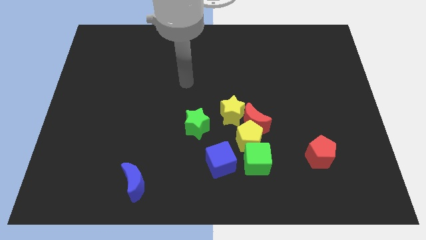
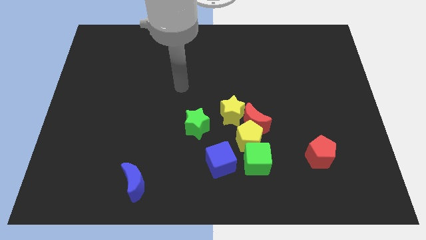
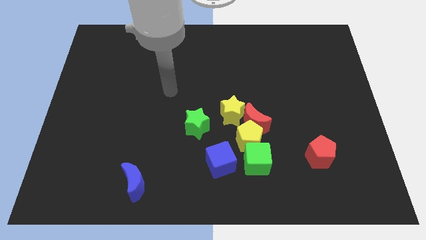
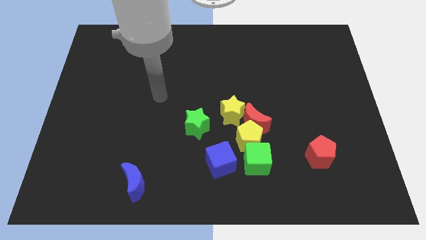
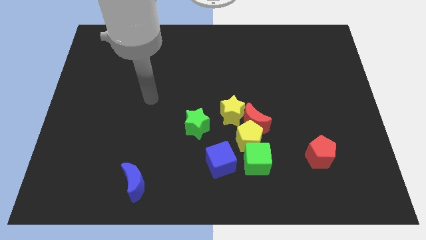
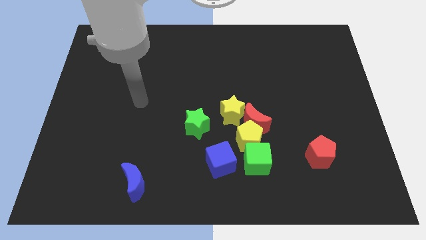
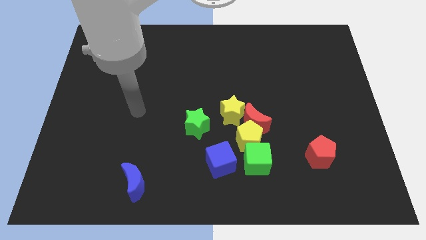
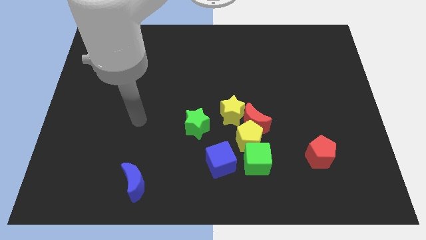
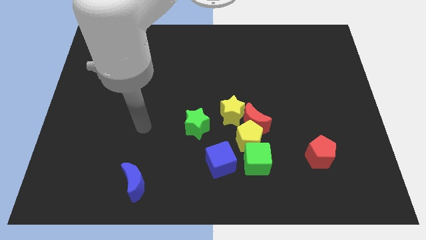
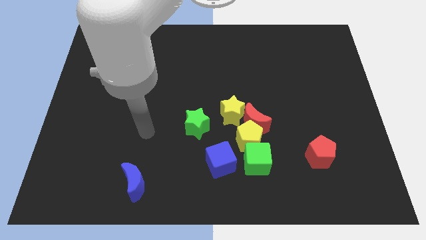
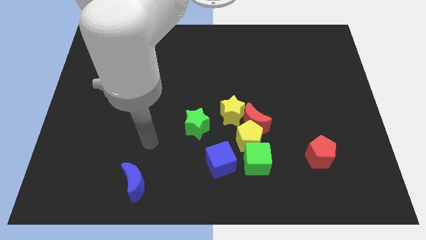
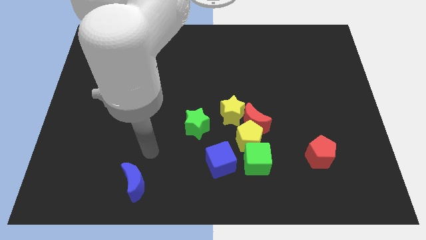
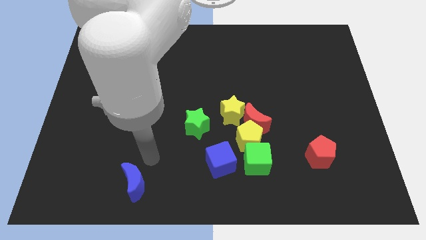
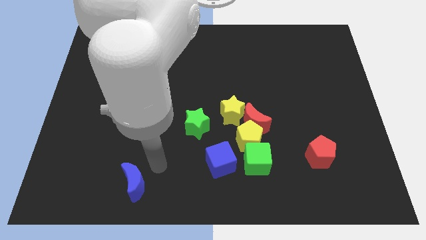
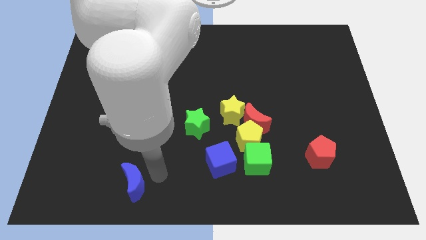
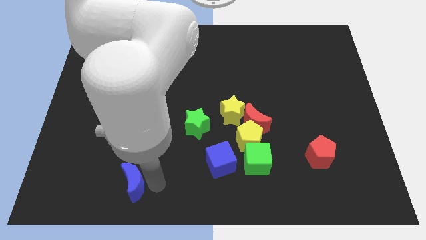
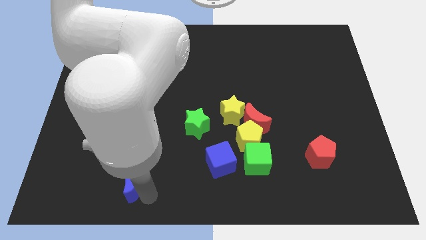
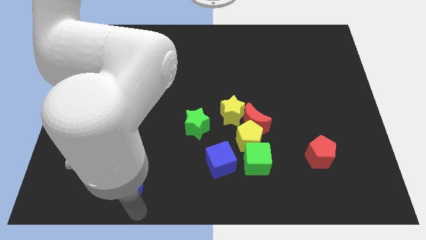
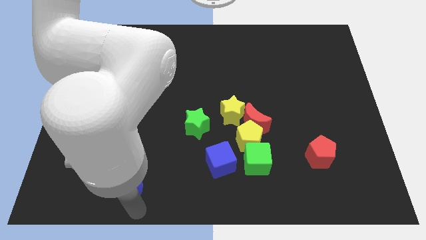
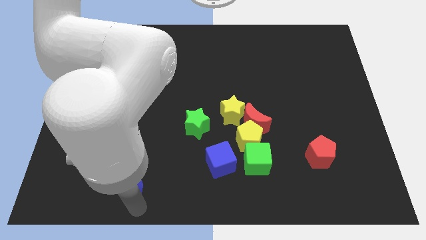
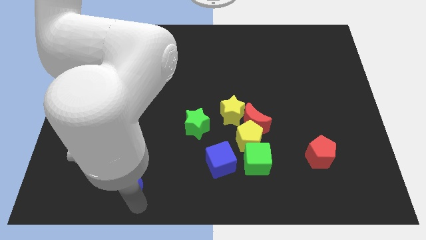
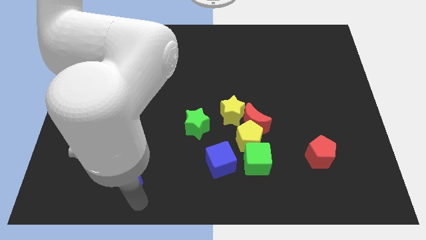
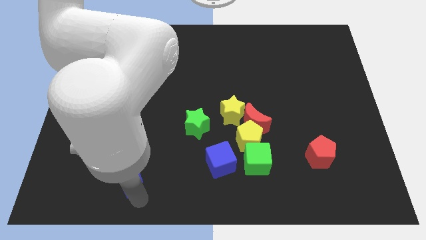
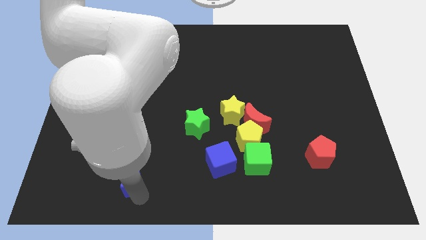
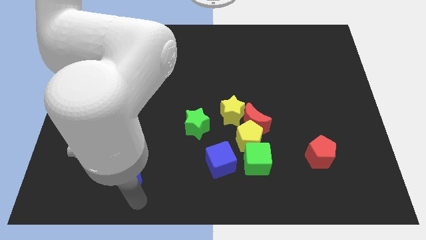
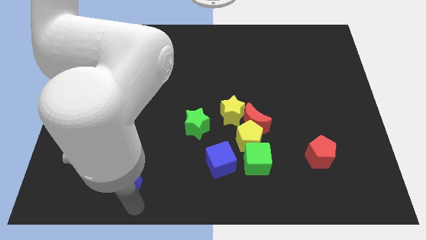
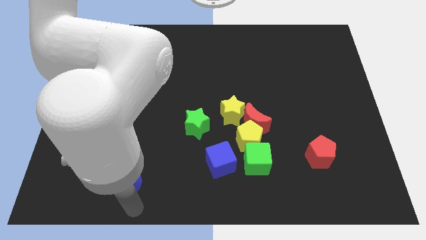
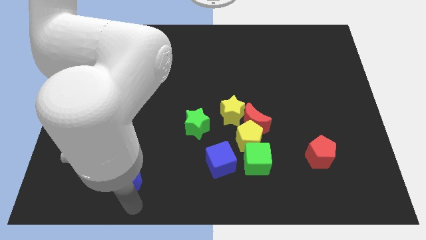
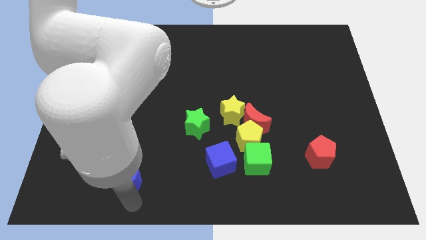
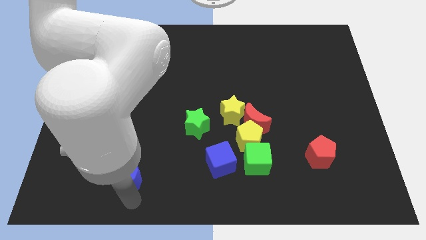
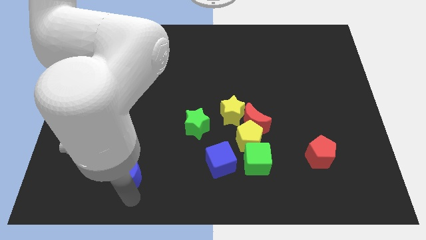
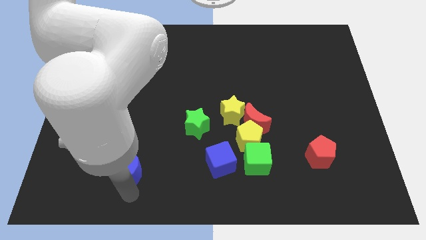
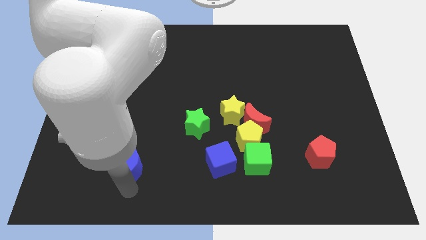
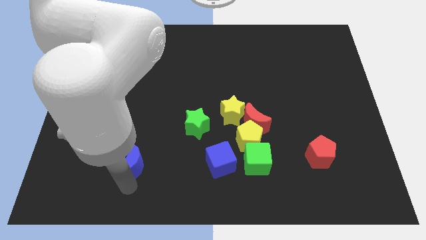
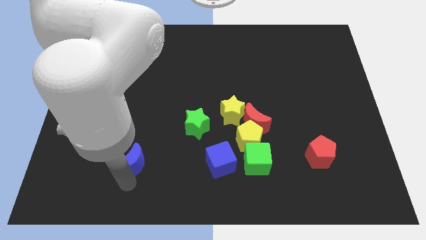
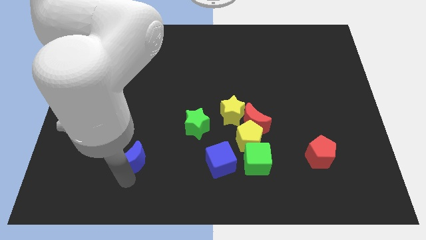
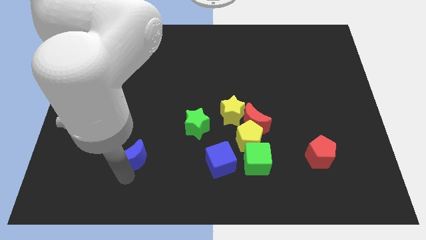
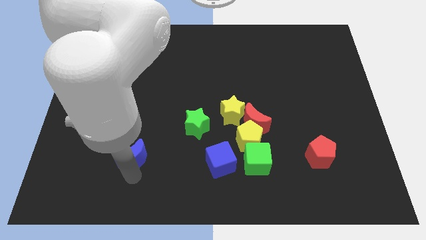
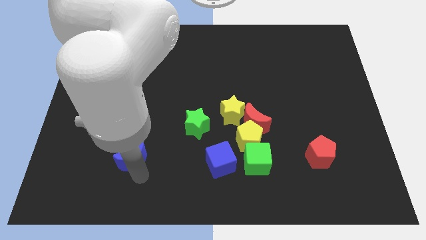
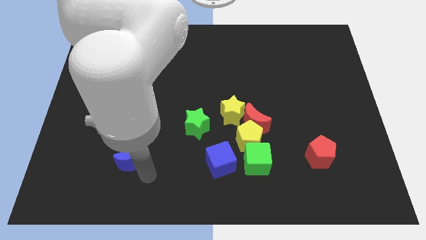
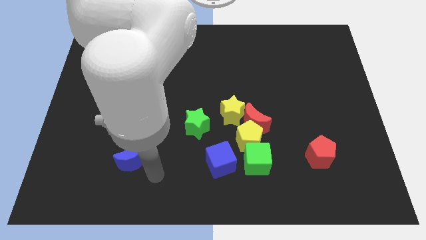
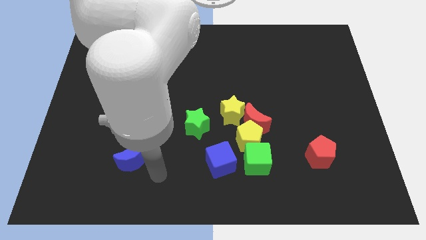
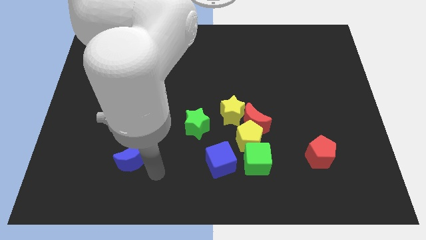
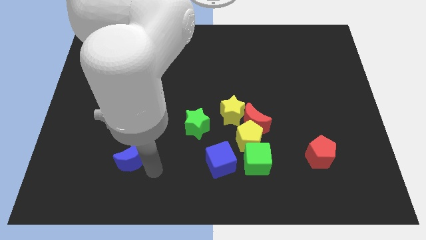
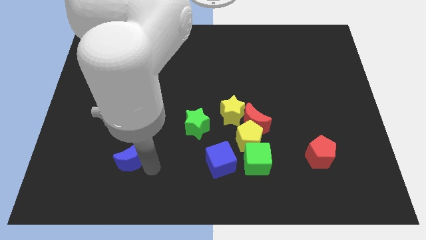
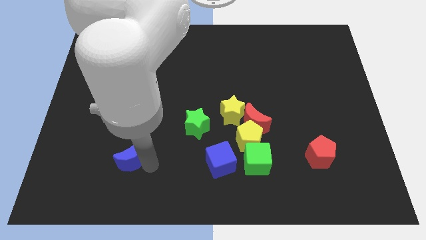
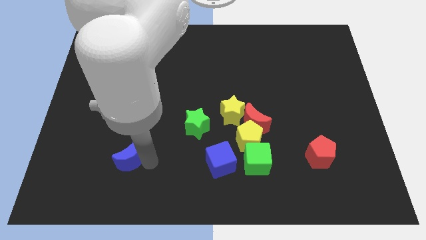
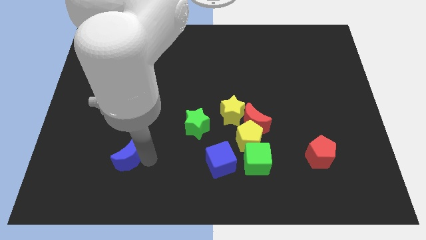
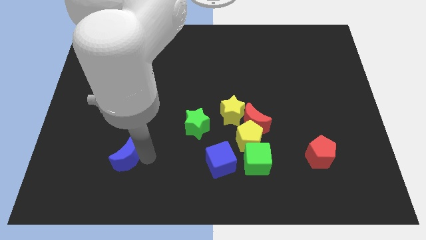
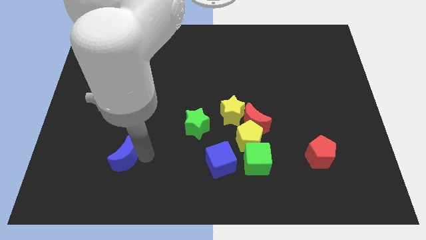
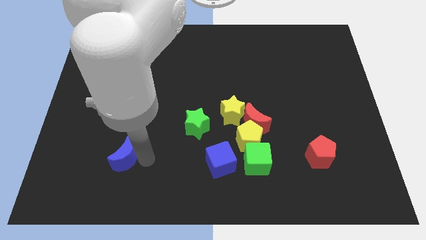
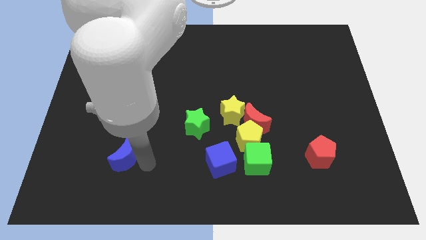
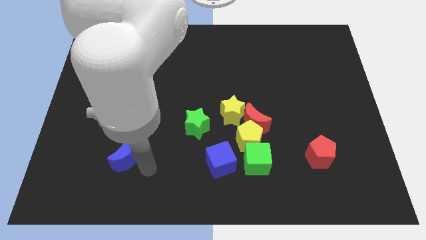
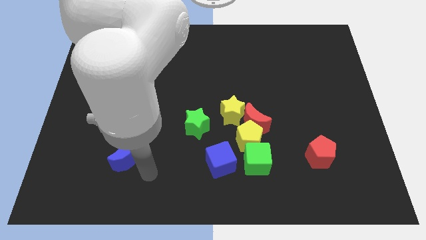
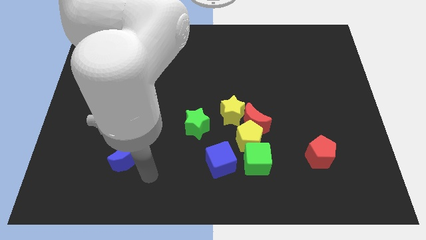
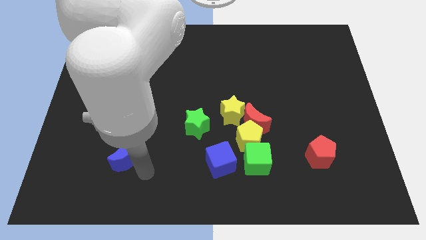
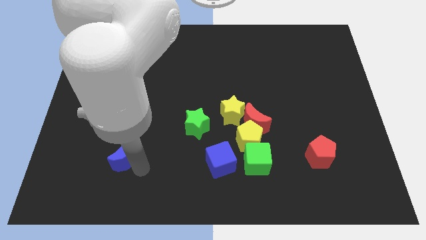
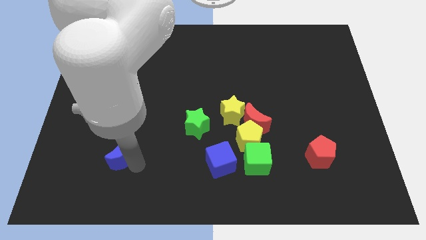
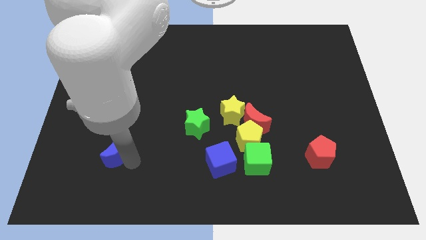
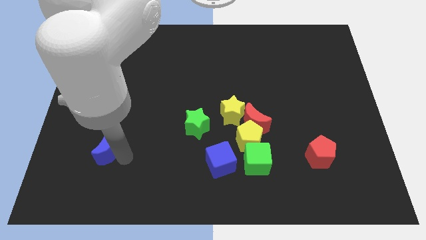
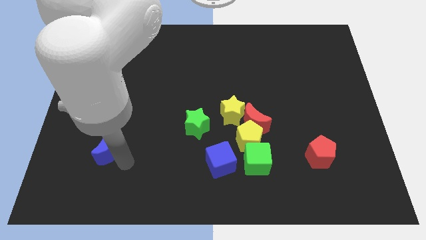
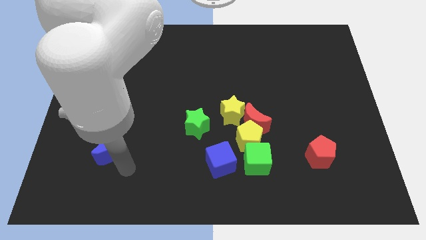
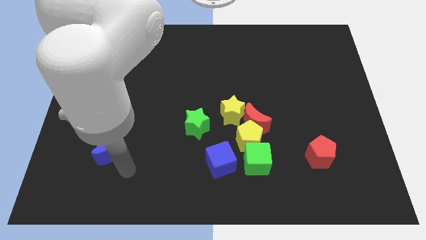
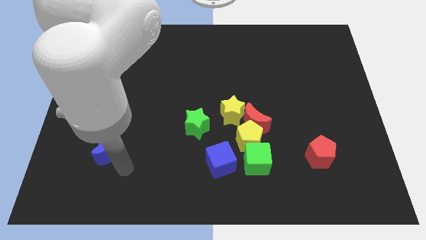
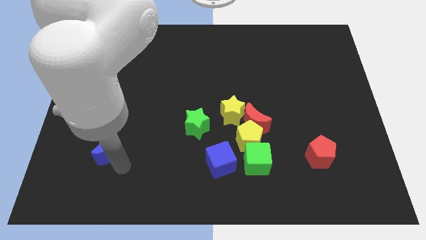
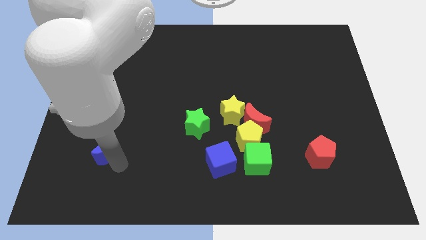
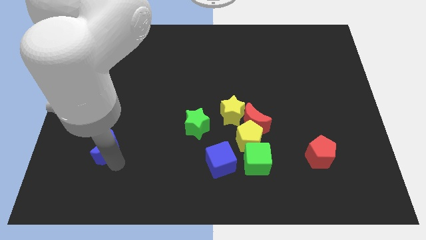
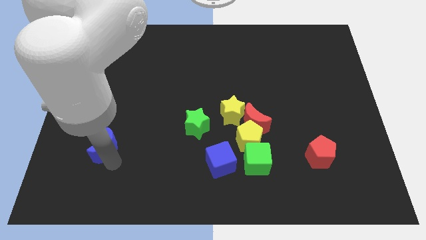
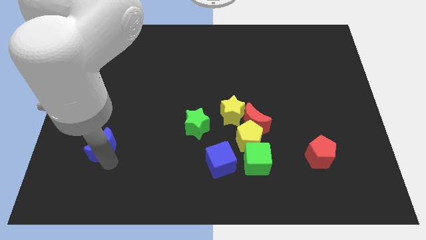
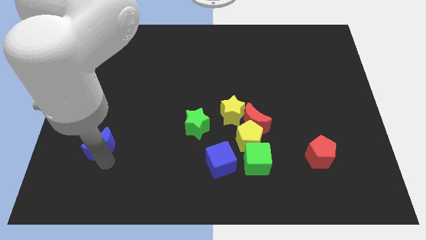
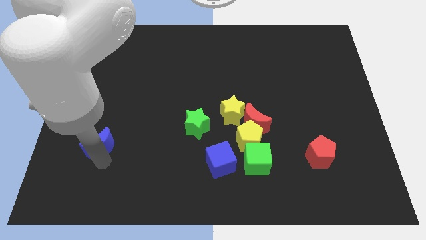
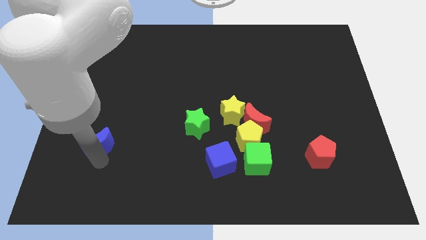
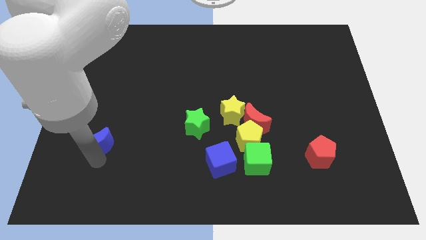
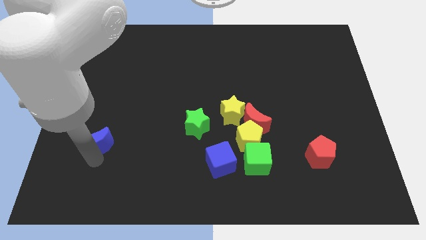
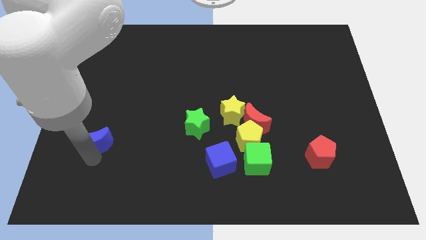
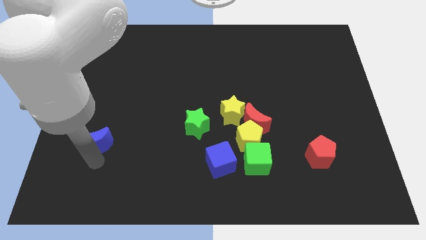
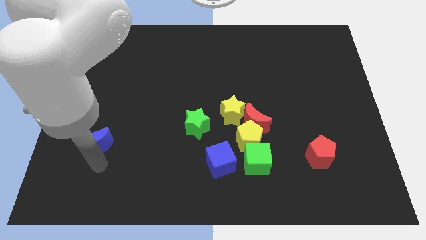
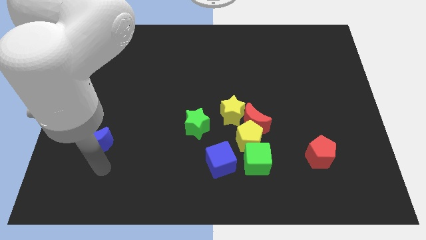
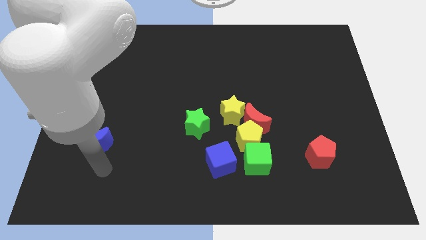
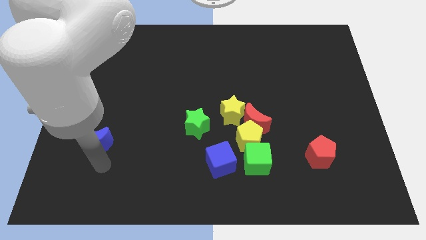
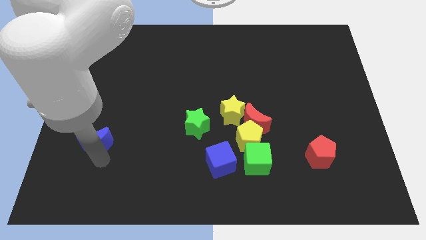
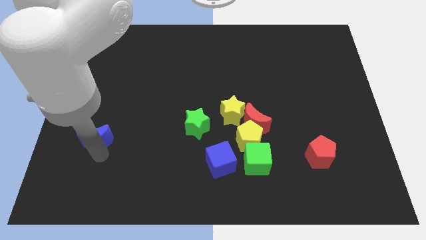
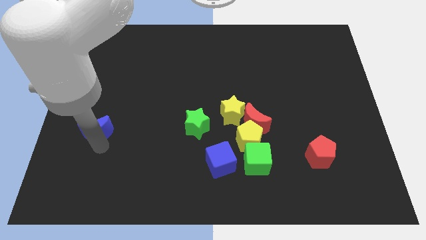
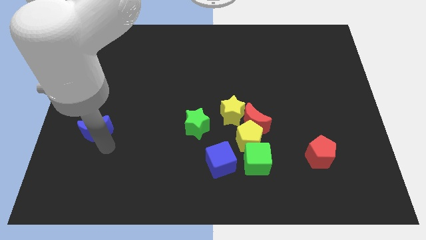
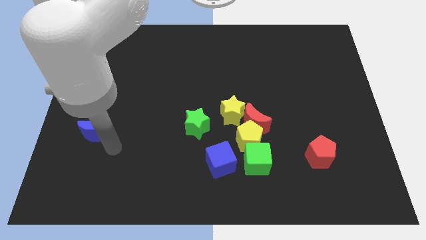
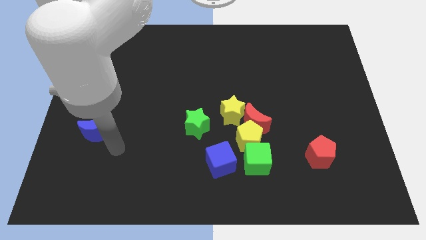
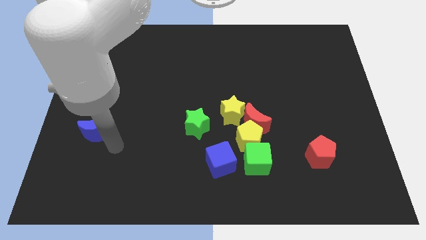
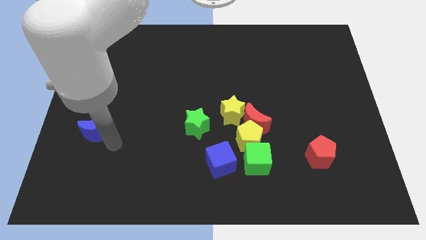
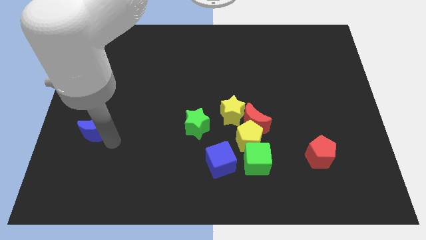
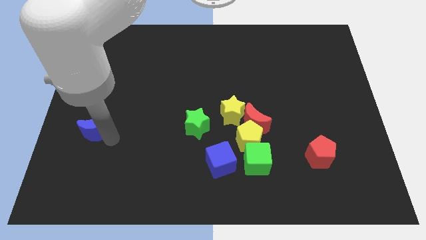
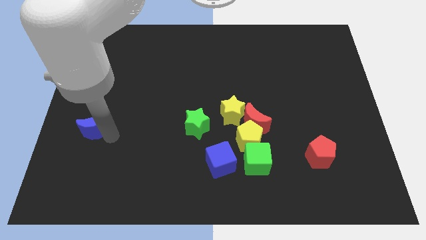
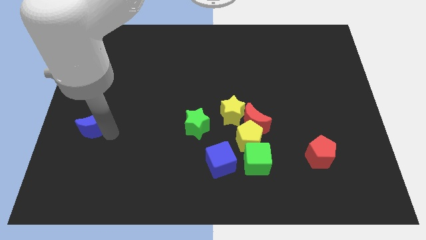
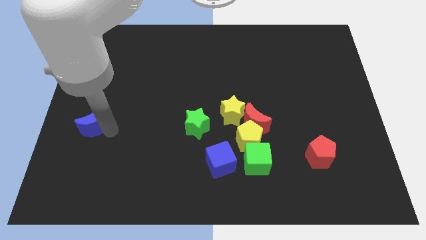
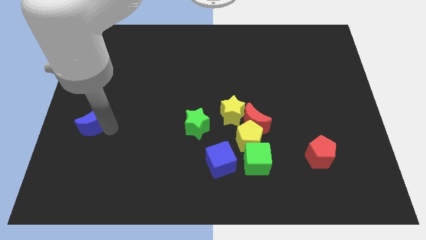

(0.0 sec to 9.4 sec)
move the blue moon to the left side
